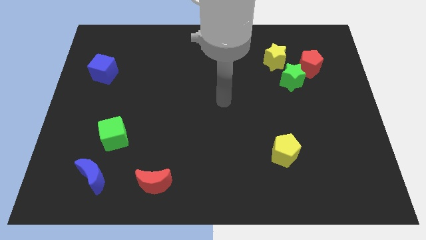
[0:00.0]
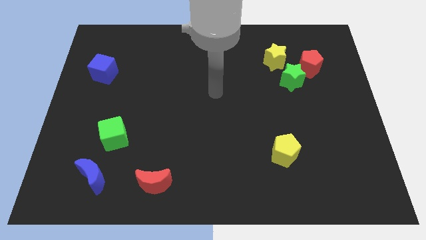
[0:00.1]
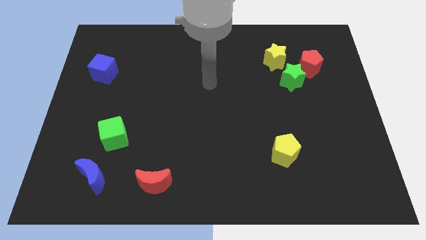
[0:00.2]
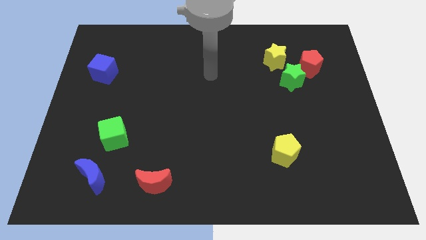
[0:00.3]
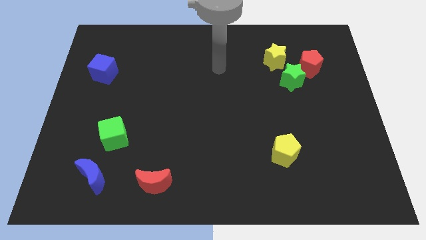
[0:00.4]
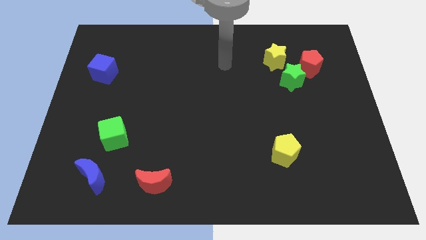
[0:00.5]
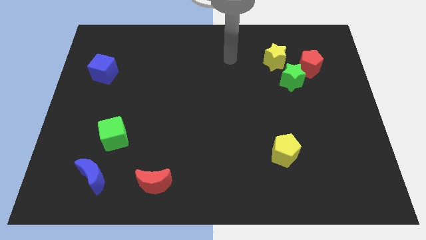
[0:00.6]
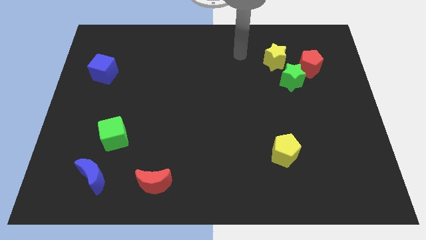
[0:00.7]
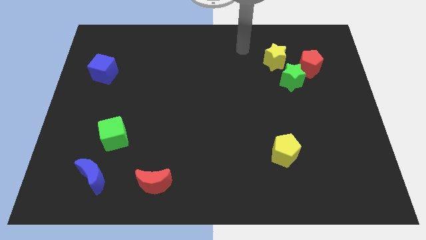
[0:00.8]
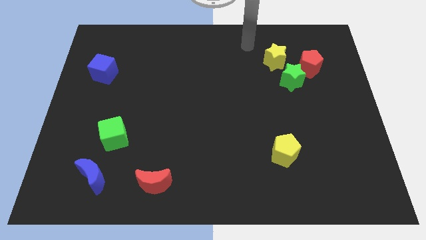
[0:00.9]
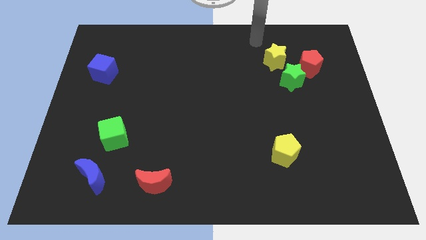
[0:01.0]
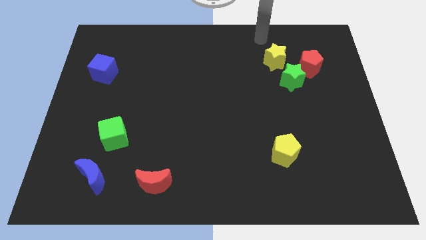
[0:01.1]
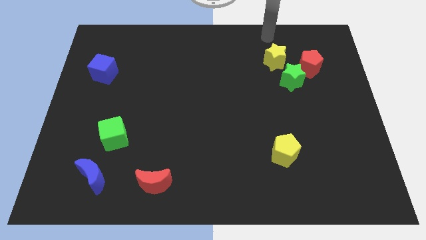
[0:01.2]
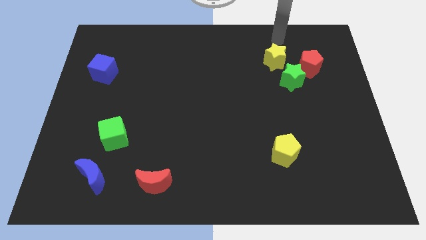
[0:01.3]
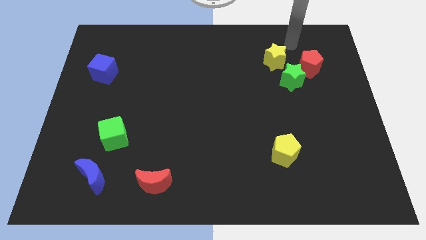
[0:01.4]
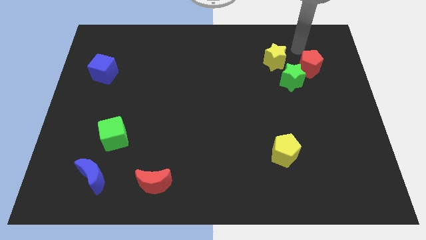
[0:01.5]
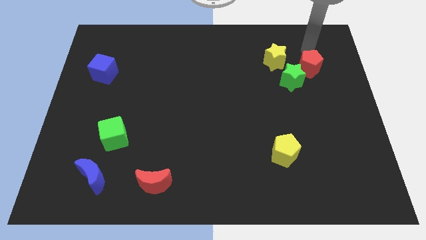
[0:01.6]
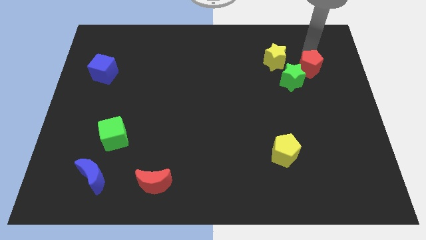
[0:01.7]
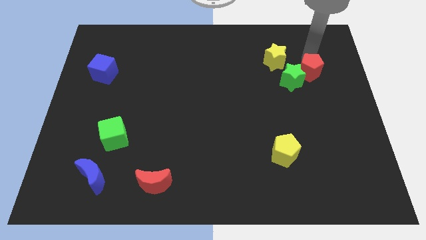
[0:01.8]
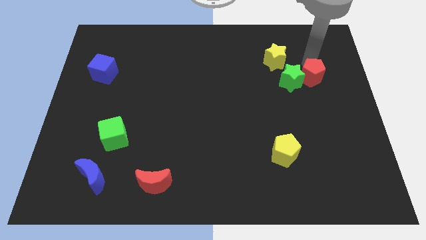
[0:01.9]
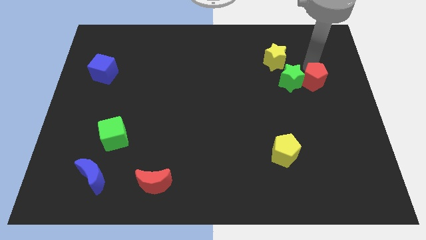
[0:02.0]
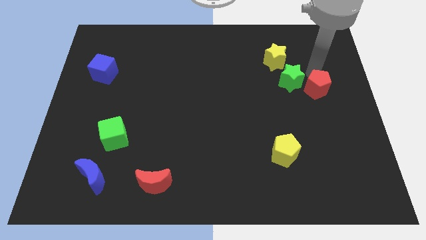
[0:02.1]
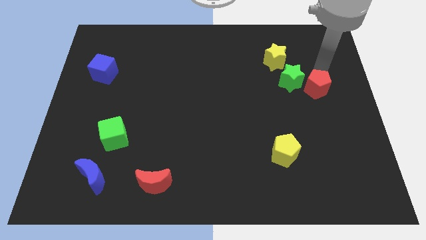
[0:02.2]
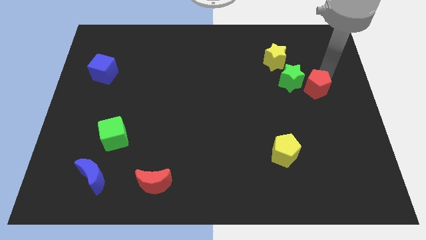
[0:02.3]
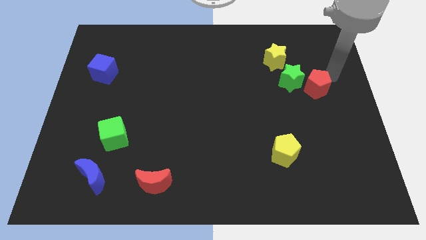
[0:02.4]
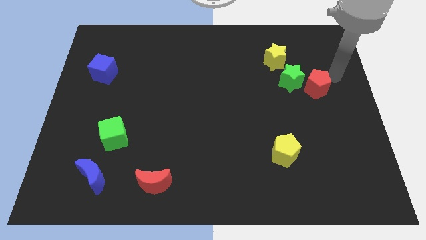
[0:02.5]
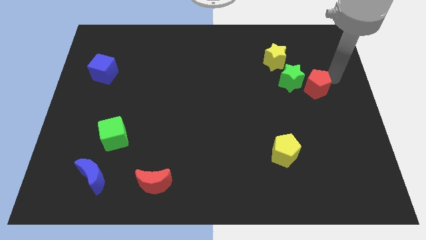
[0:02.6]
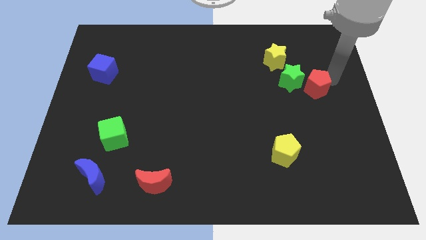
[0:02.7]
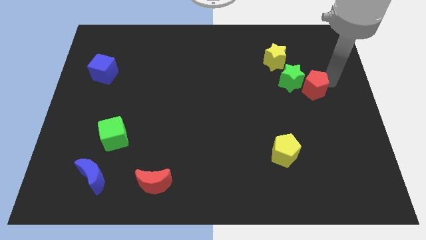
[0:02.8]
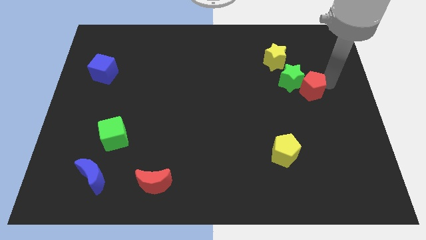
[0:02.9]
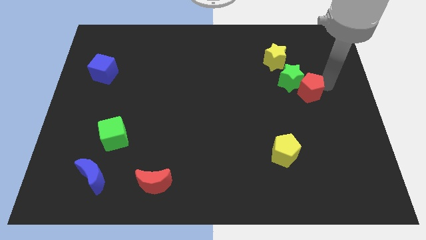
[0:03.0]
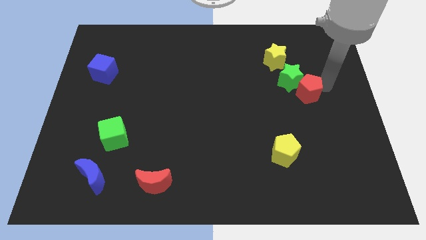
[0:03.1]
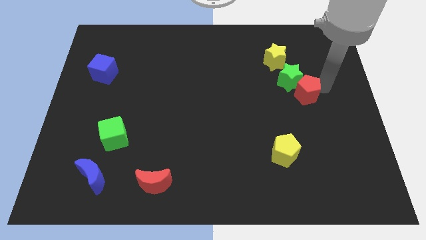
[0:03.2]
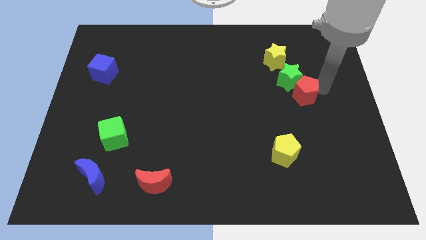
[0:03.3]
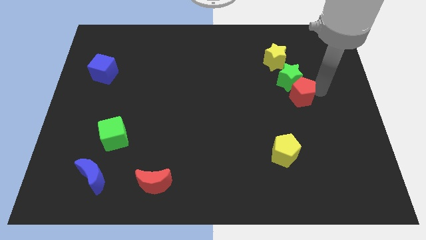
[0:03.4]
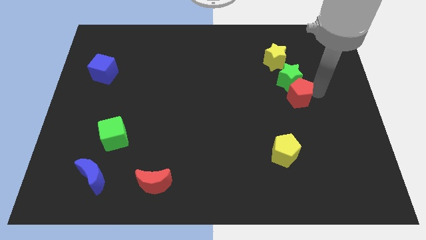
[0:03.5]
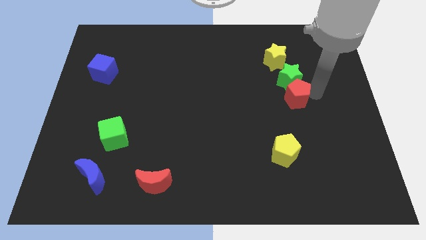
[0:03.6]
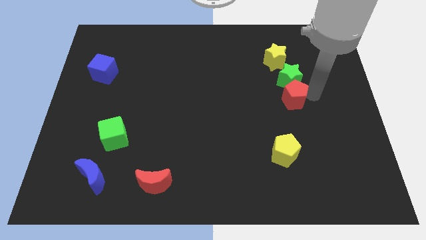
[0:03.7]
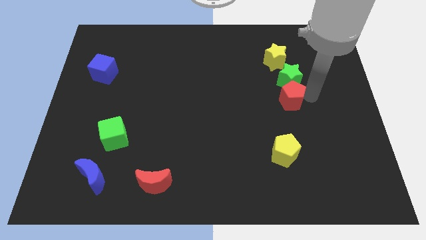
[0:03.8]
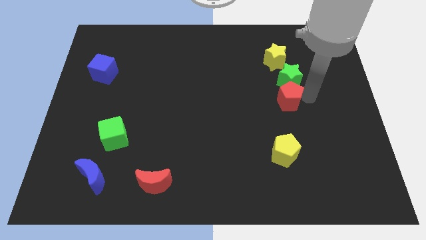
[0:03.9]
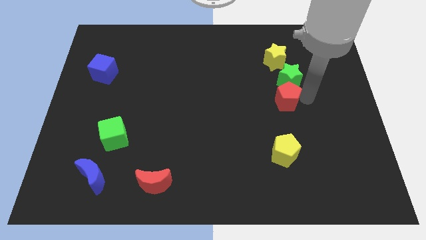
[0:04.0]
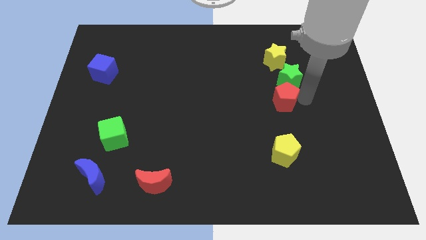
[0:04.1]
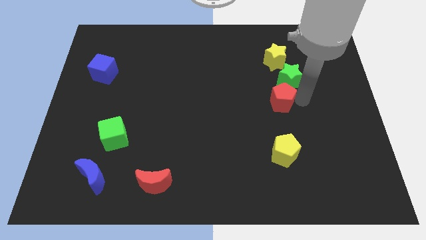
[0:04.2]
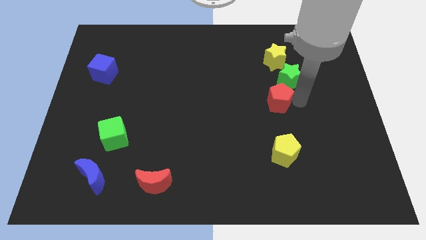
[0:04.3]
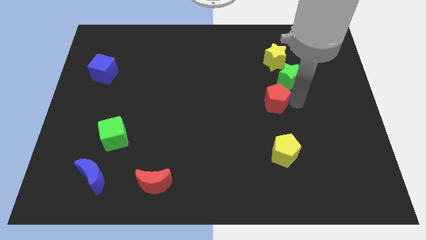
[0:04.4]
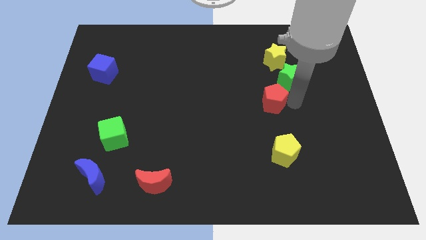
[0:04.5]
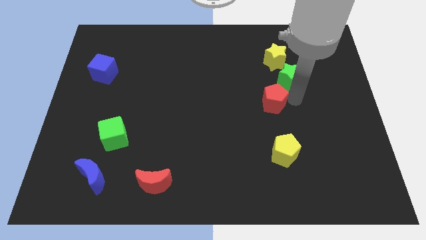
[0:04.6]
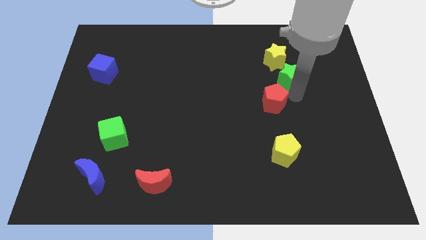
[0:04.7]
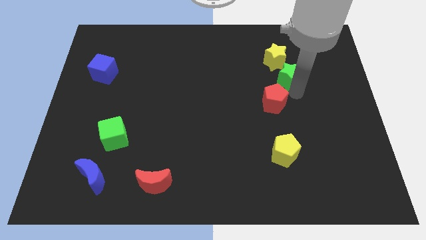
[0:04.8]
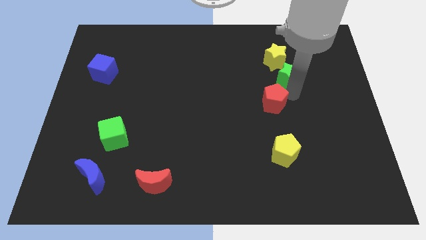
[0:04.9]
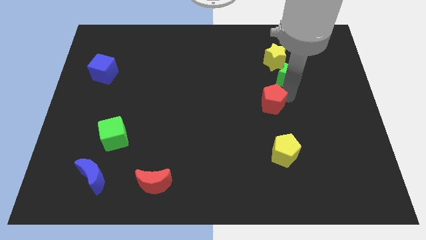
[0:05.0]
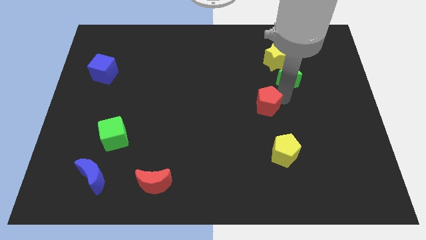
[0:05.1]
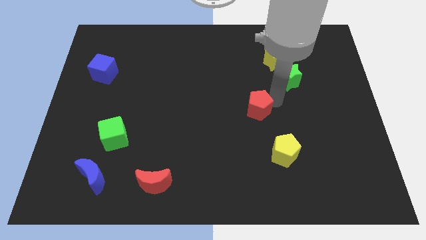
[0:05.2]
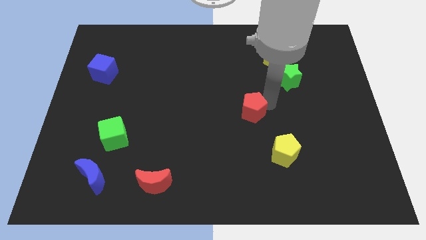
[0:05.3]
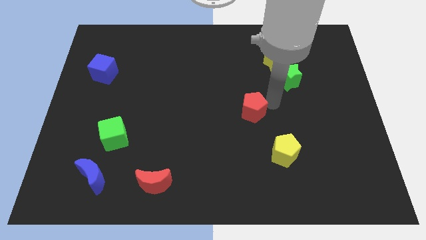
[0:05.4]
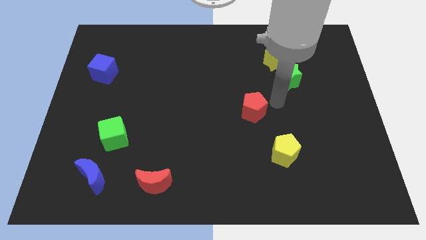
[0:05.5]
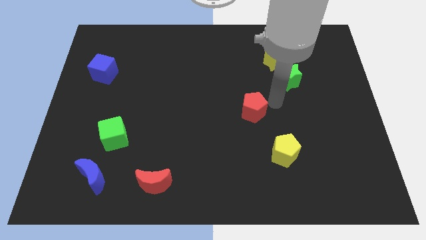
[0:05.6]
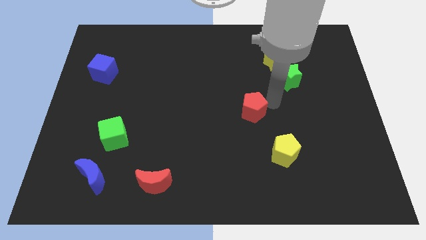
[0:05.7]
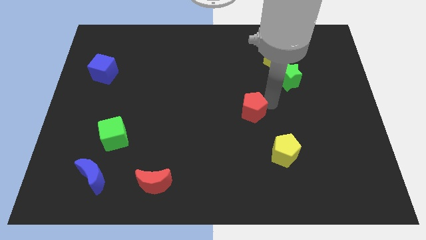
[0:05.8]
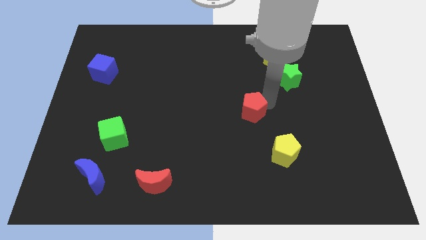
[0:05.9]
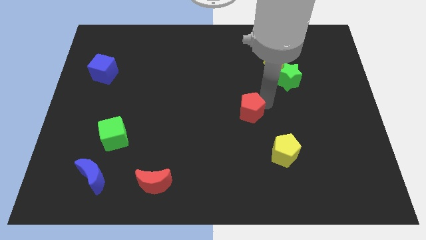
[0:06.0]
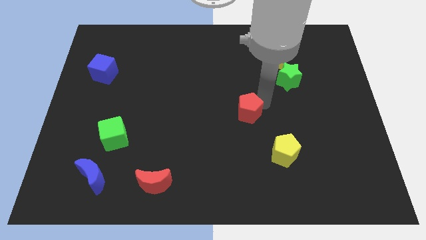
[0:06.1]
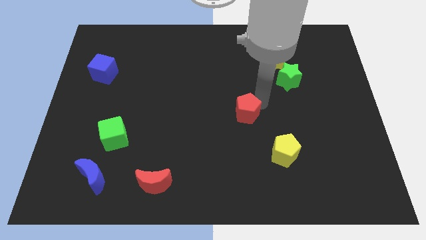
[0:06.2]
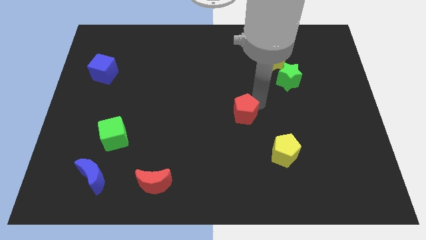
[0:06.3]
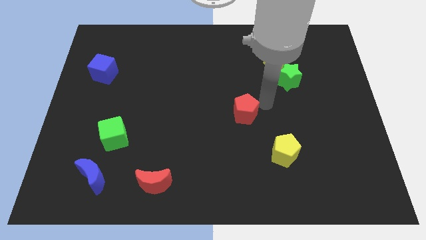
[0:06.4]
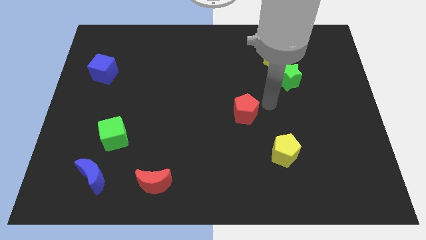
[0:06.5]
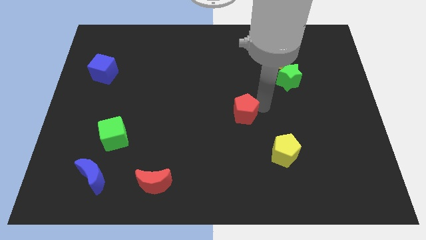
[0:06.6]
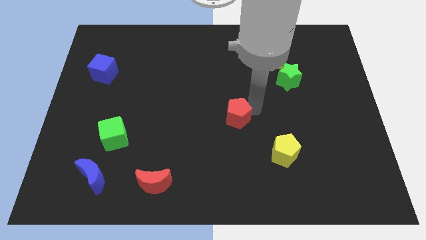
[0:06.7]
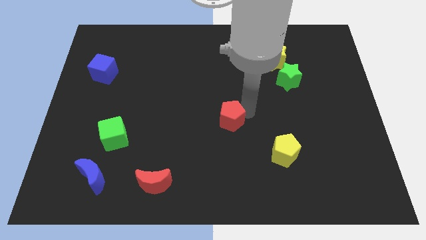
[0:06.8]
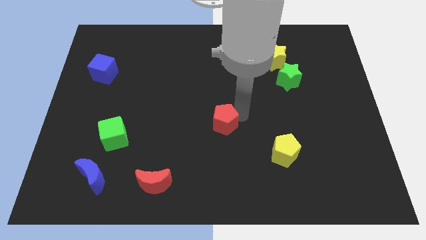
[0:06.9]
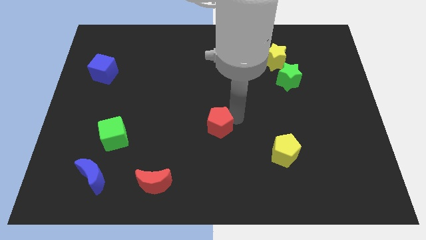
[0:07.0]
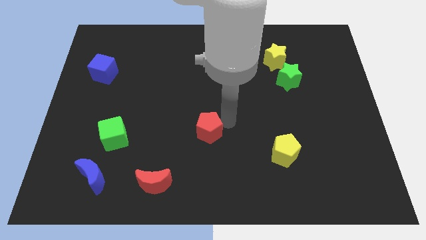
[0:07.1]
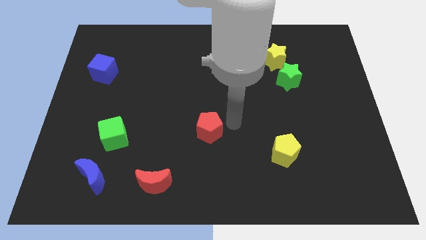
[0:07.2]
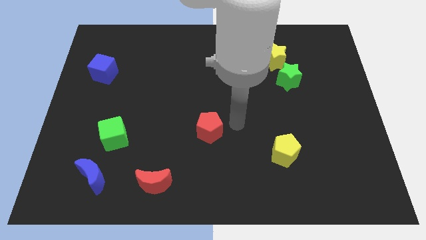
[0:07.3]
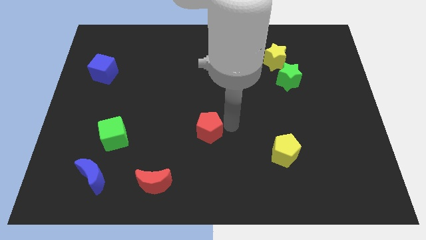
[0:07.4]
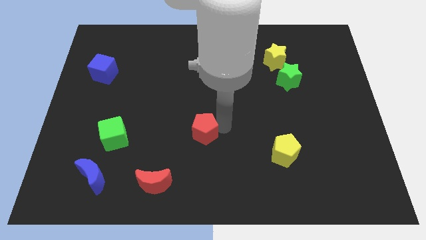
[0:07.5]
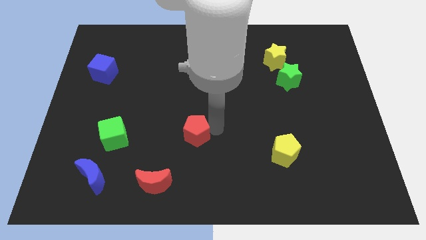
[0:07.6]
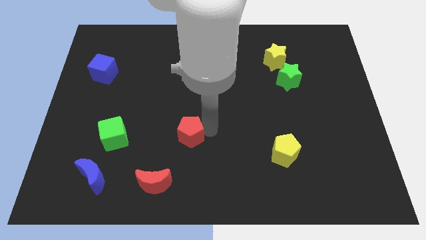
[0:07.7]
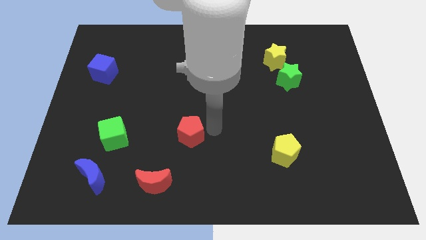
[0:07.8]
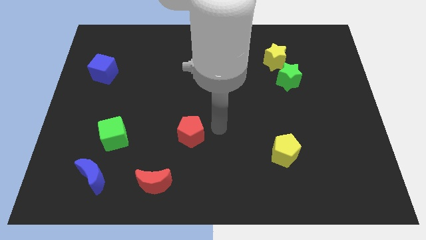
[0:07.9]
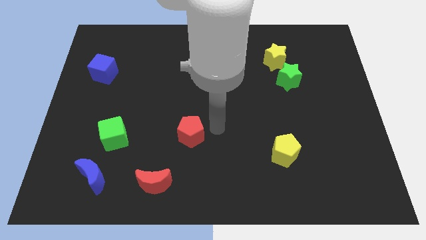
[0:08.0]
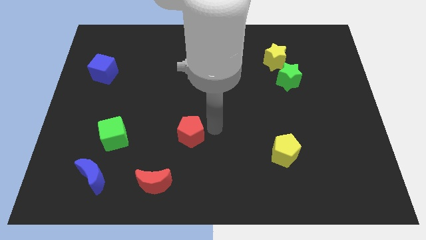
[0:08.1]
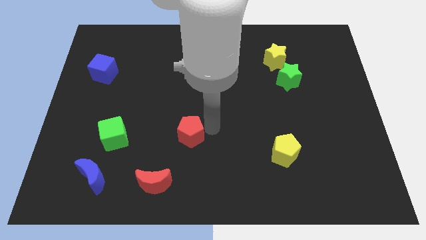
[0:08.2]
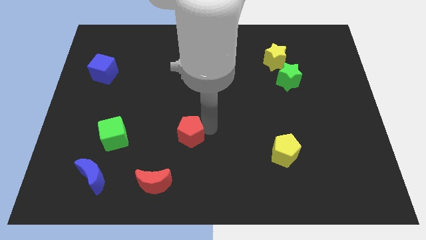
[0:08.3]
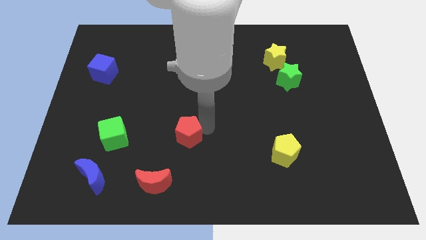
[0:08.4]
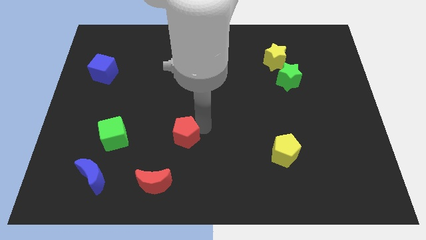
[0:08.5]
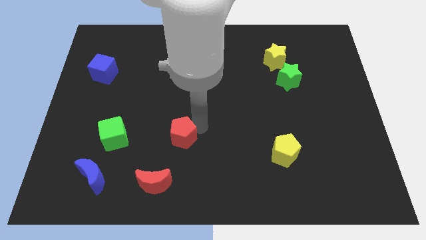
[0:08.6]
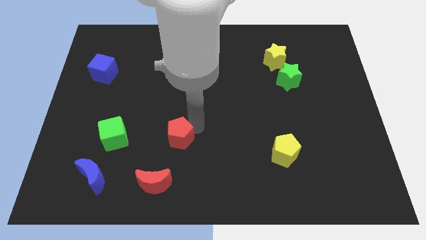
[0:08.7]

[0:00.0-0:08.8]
slide the red pentagon to the top of the red moon
